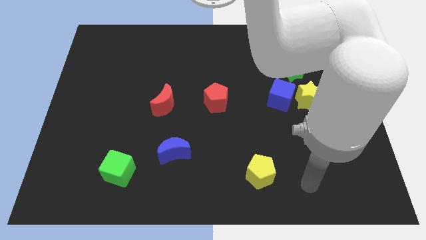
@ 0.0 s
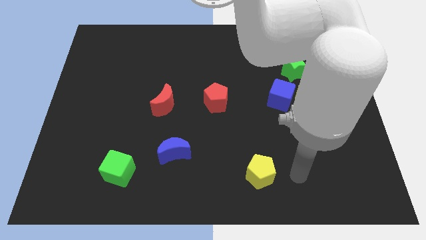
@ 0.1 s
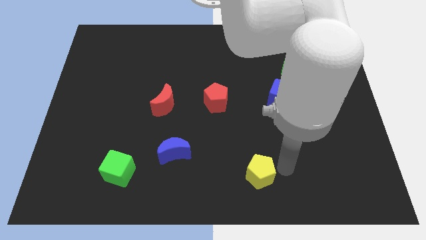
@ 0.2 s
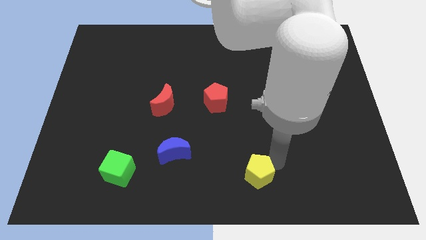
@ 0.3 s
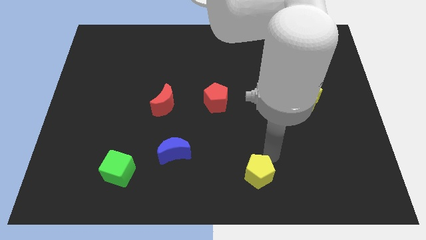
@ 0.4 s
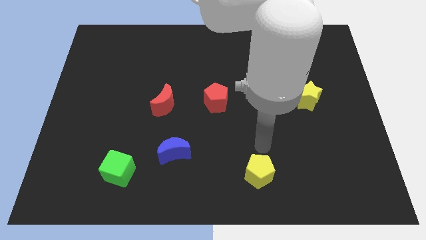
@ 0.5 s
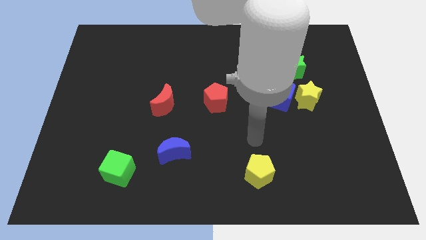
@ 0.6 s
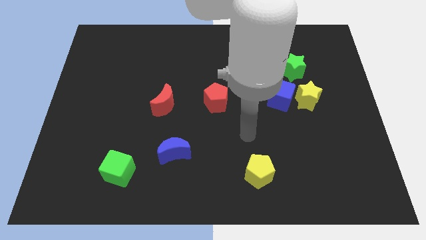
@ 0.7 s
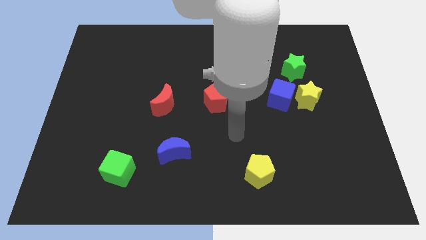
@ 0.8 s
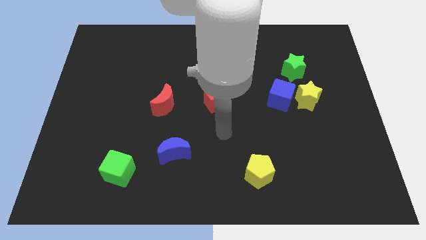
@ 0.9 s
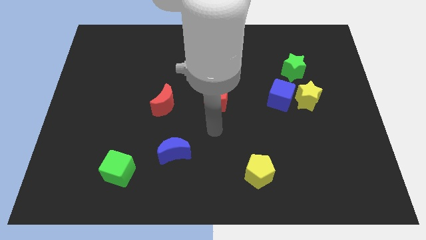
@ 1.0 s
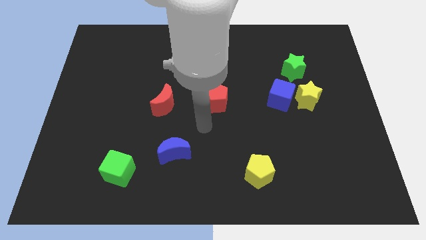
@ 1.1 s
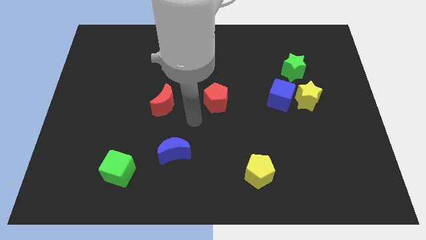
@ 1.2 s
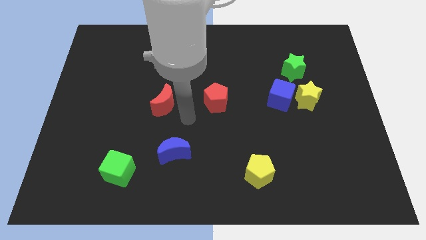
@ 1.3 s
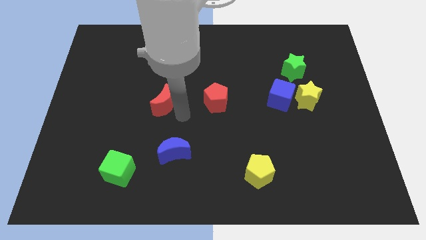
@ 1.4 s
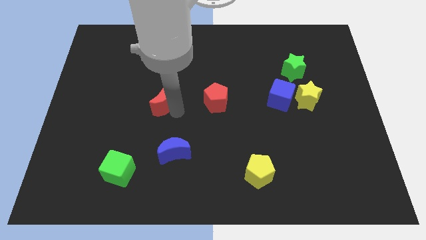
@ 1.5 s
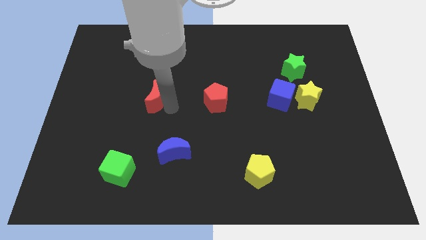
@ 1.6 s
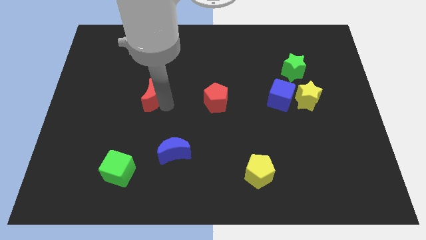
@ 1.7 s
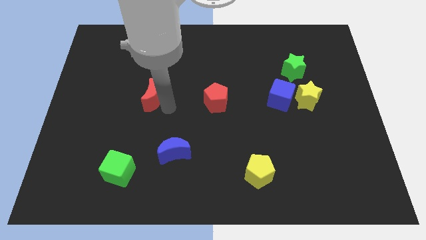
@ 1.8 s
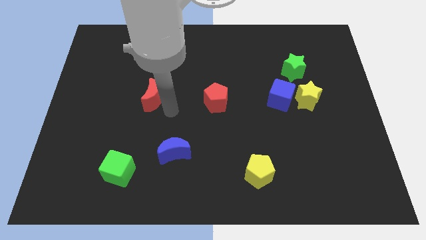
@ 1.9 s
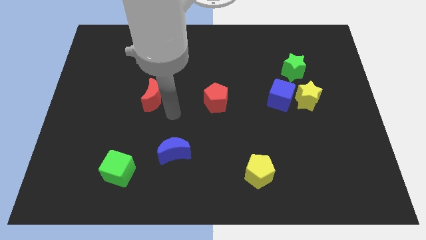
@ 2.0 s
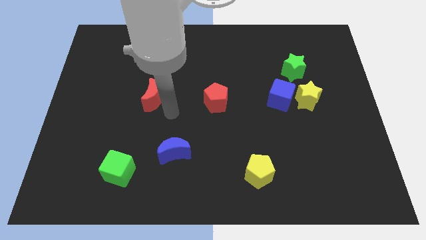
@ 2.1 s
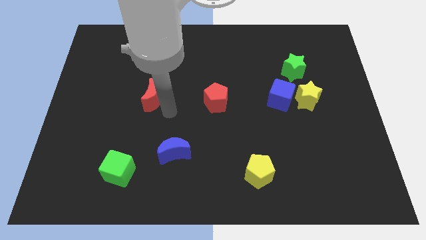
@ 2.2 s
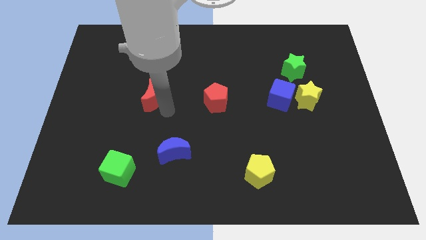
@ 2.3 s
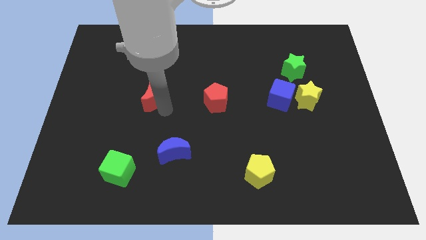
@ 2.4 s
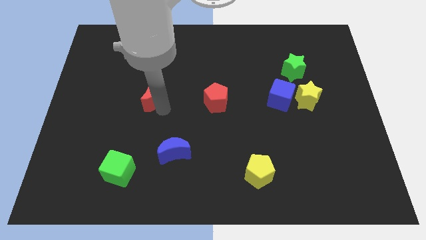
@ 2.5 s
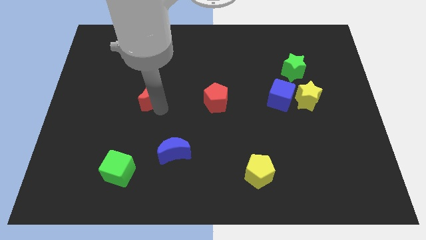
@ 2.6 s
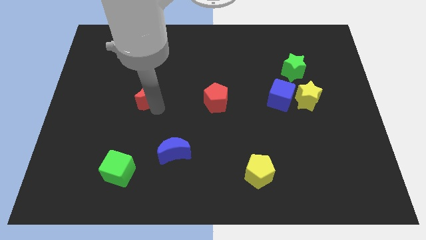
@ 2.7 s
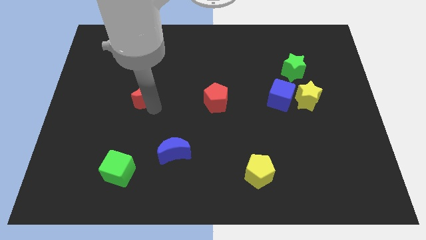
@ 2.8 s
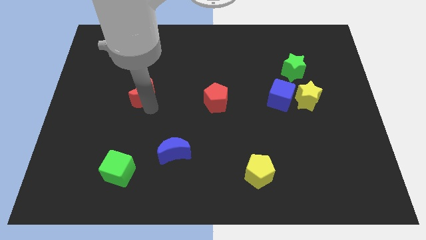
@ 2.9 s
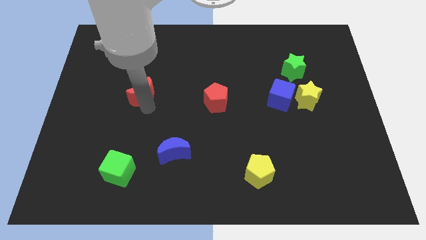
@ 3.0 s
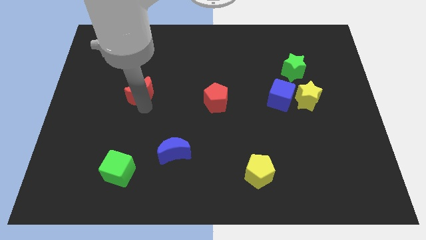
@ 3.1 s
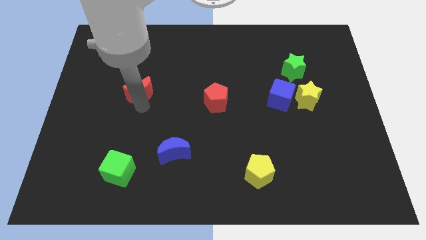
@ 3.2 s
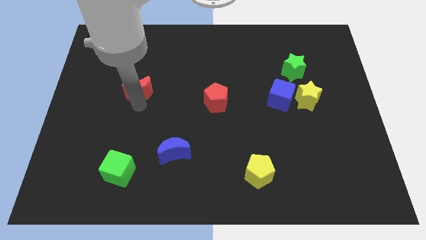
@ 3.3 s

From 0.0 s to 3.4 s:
slide the red moon slightly diagonally upwards and to the left

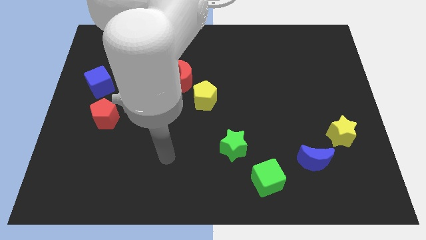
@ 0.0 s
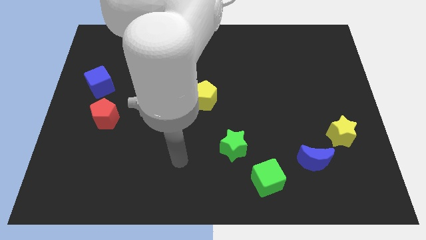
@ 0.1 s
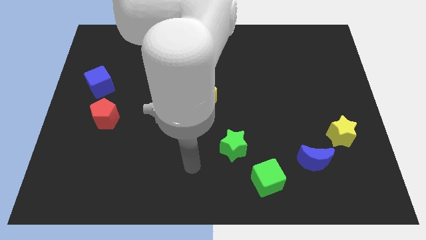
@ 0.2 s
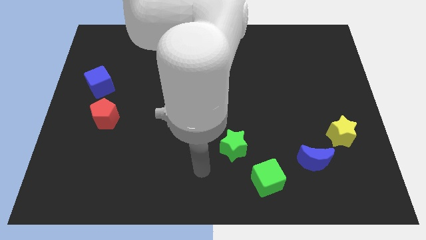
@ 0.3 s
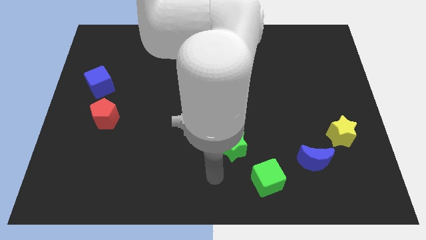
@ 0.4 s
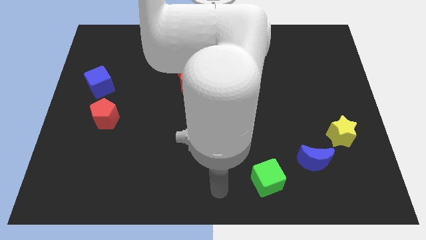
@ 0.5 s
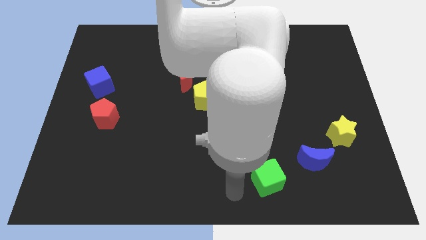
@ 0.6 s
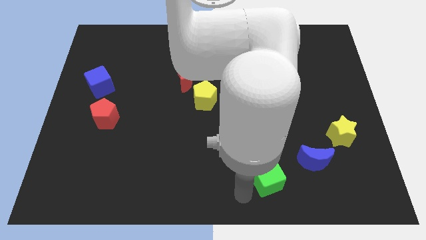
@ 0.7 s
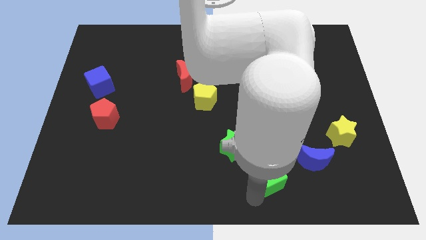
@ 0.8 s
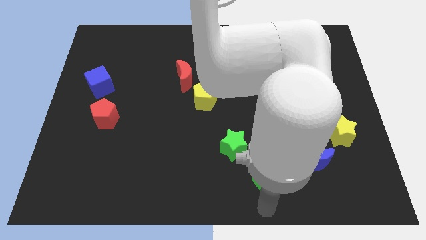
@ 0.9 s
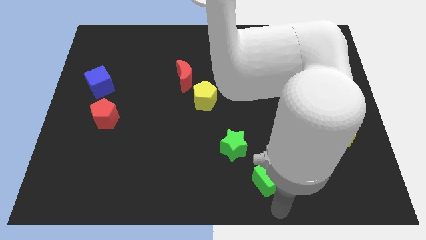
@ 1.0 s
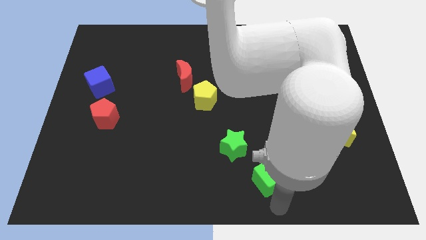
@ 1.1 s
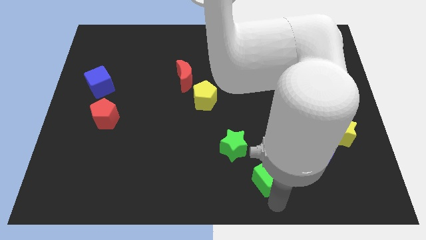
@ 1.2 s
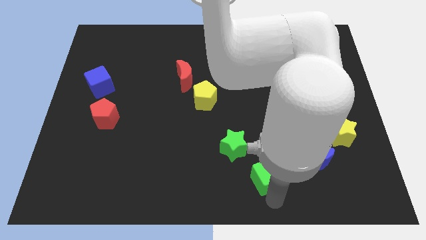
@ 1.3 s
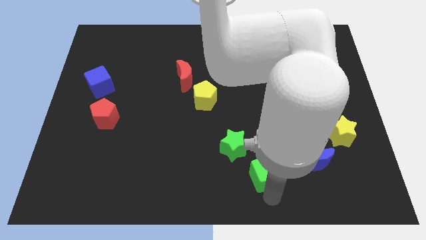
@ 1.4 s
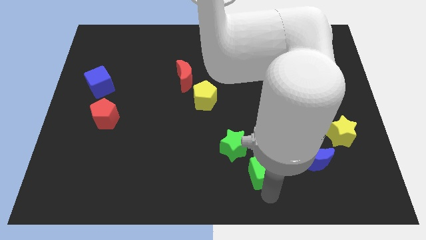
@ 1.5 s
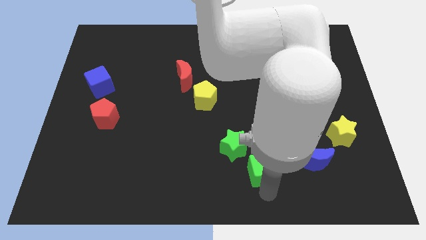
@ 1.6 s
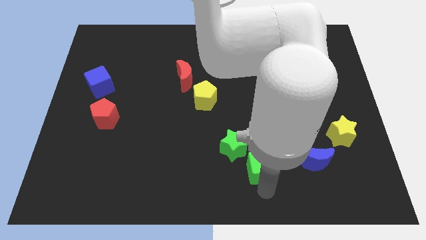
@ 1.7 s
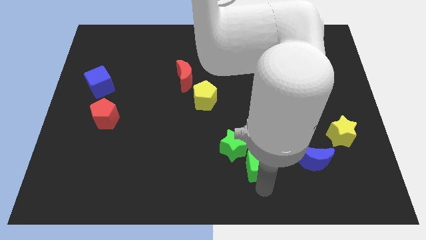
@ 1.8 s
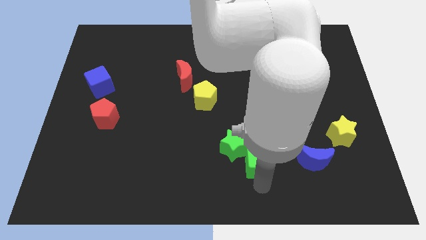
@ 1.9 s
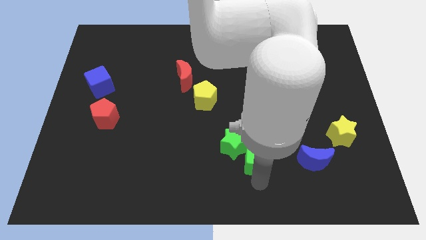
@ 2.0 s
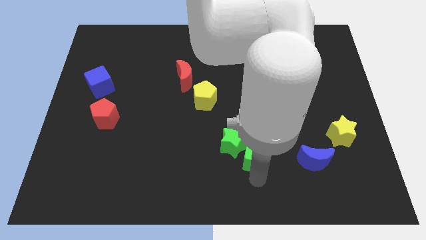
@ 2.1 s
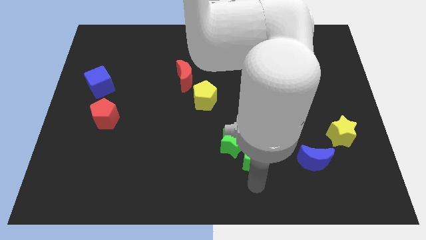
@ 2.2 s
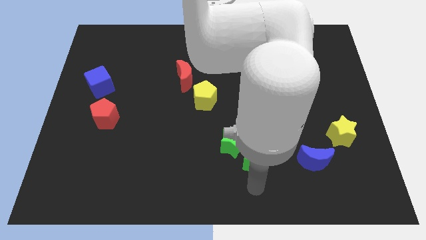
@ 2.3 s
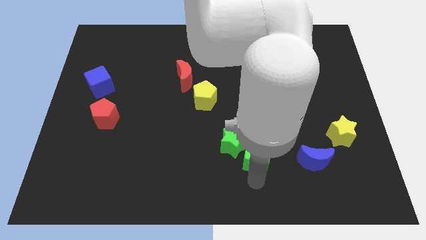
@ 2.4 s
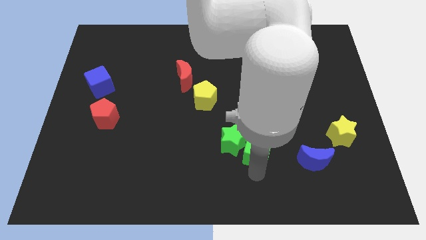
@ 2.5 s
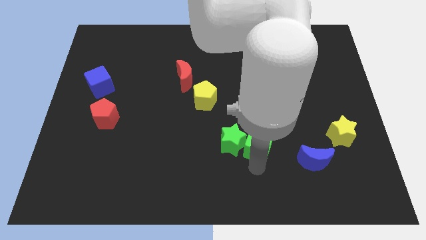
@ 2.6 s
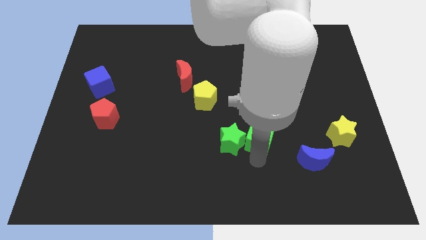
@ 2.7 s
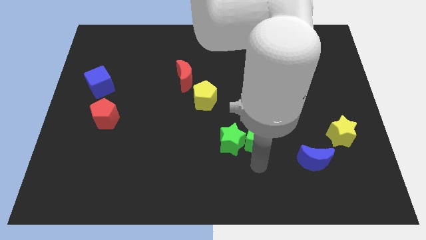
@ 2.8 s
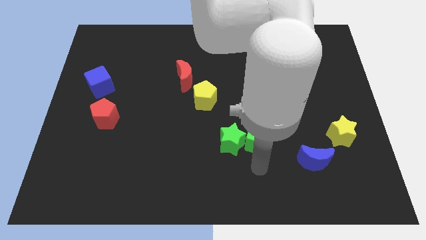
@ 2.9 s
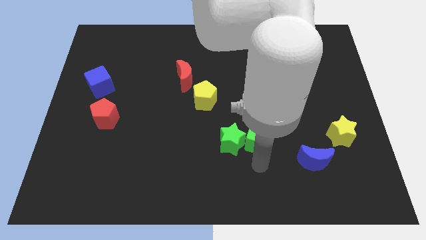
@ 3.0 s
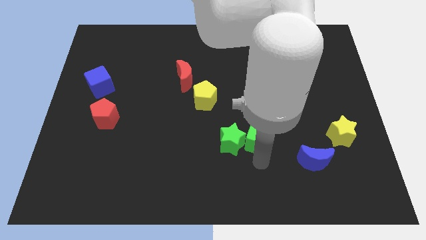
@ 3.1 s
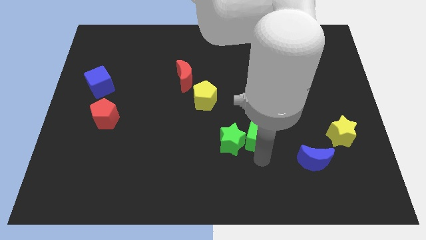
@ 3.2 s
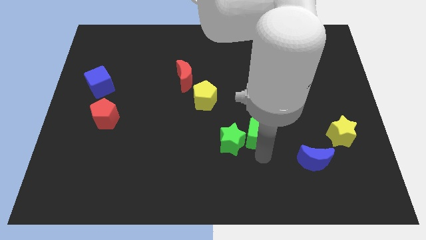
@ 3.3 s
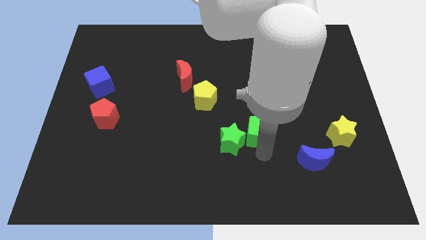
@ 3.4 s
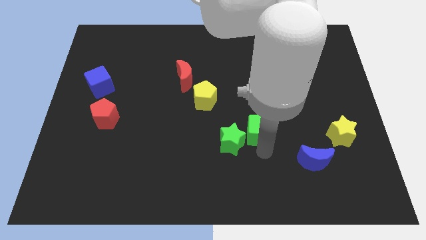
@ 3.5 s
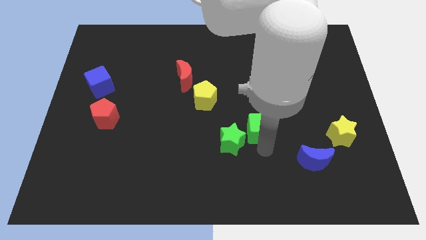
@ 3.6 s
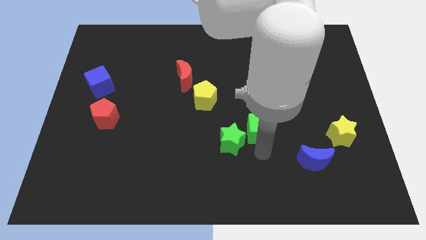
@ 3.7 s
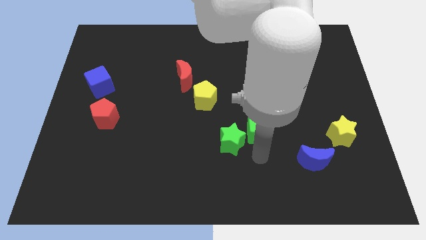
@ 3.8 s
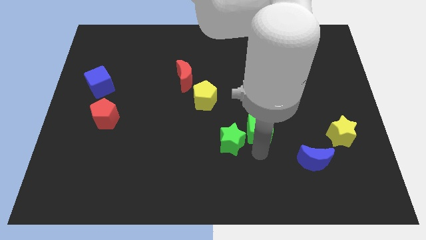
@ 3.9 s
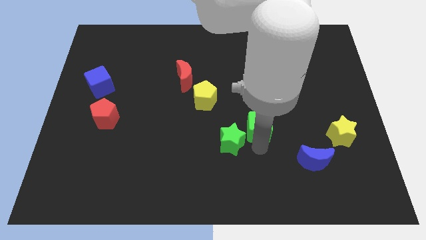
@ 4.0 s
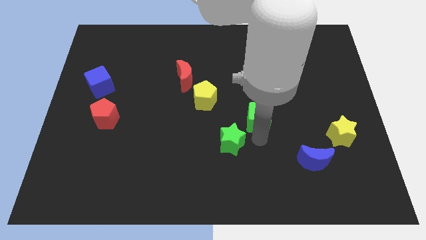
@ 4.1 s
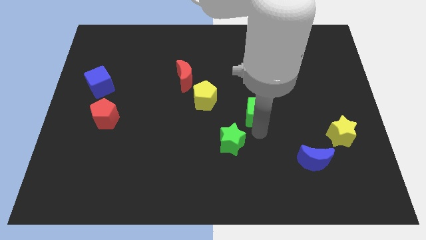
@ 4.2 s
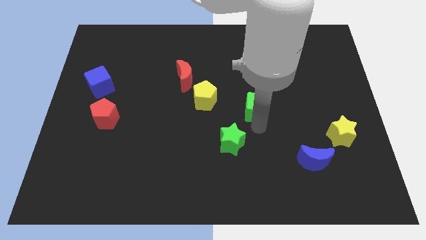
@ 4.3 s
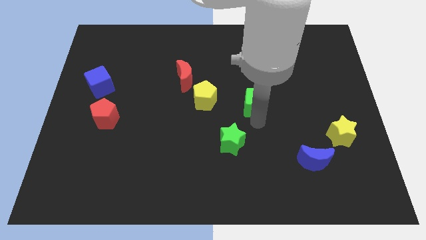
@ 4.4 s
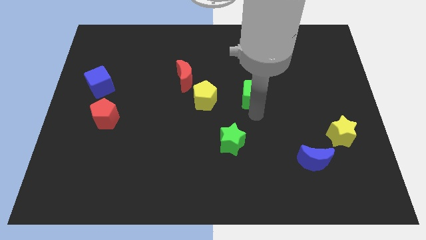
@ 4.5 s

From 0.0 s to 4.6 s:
slide the green cube up
